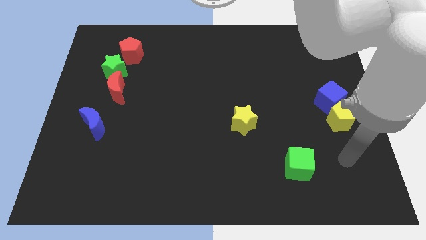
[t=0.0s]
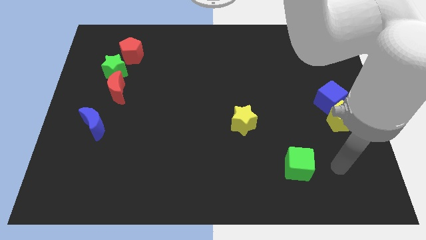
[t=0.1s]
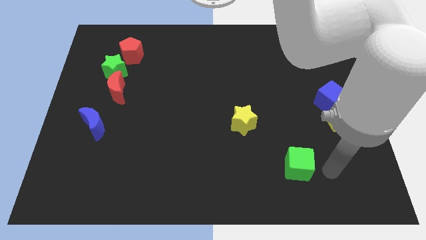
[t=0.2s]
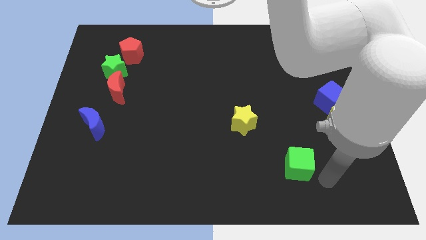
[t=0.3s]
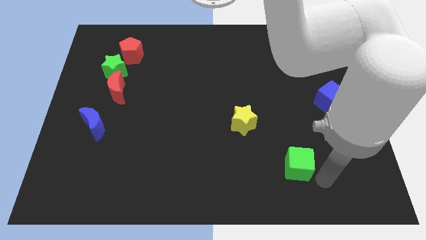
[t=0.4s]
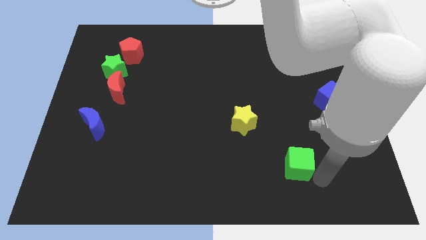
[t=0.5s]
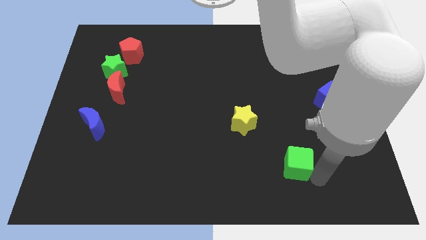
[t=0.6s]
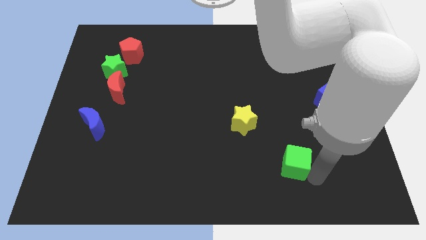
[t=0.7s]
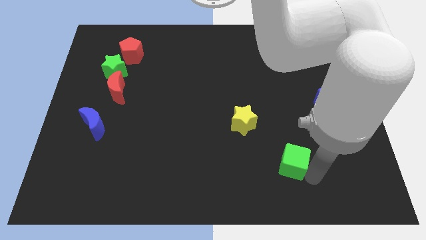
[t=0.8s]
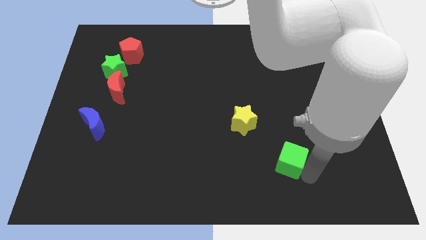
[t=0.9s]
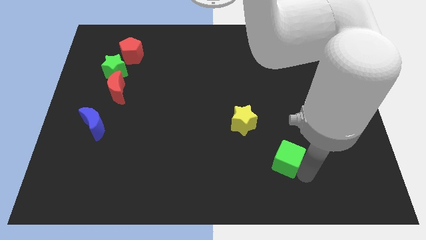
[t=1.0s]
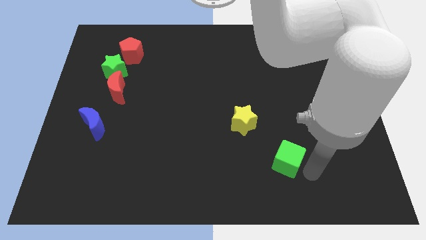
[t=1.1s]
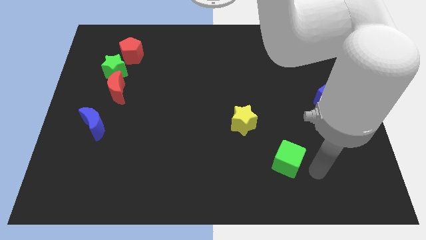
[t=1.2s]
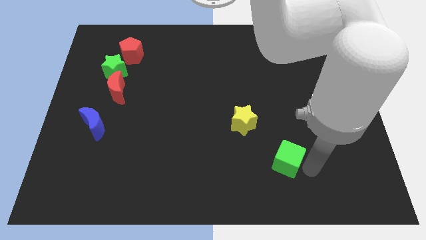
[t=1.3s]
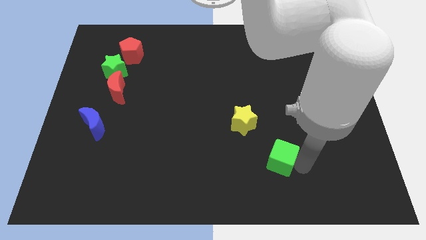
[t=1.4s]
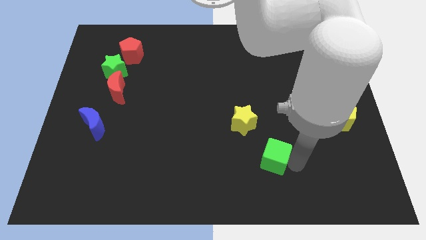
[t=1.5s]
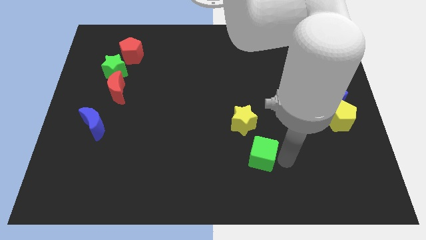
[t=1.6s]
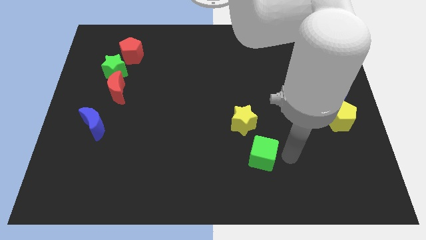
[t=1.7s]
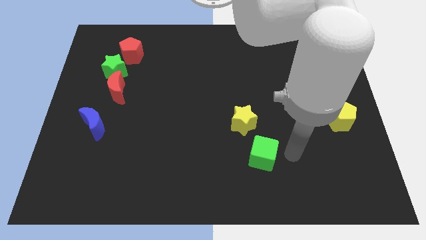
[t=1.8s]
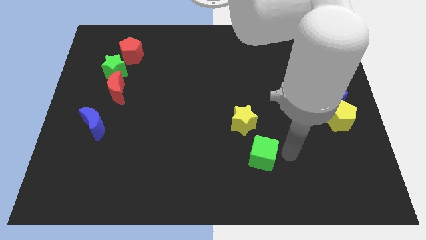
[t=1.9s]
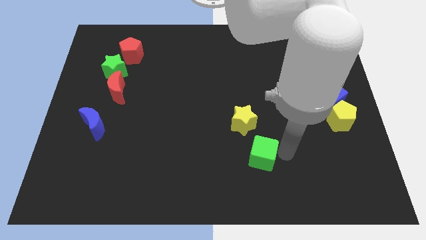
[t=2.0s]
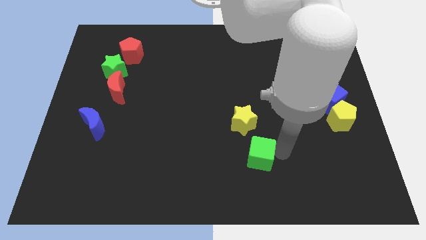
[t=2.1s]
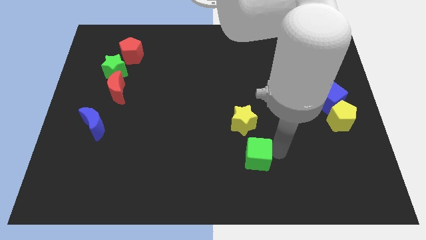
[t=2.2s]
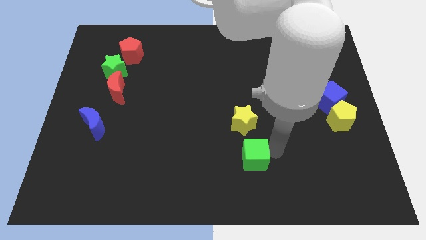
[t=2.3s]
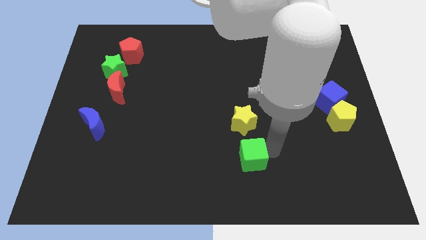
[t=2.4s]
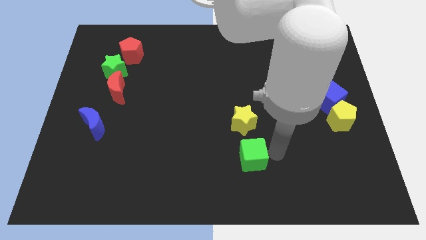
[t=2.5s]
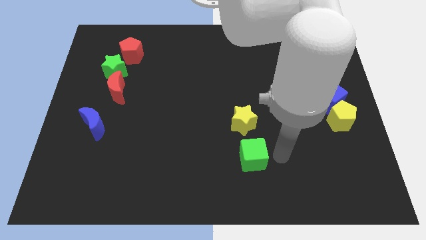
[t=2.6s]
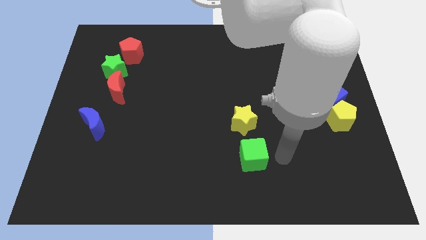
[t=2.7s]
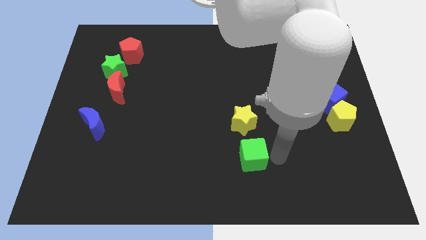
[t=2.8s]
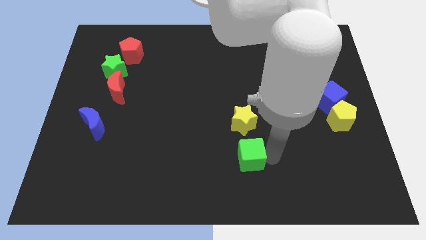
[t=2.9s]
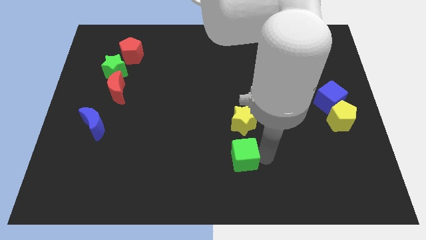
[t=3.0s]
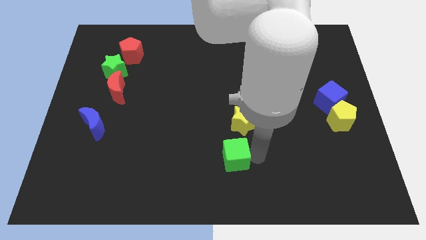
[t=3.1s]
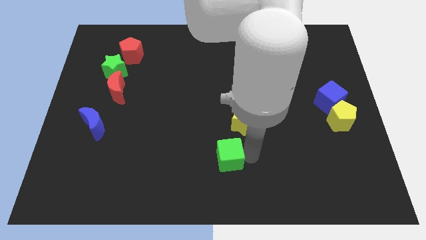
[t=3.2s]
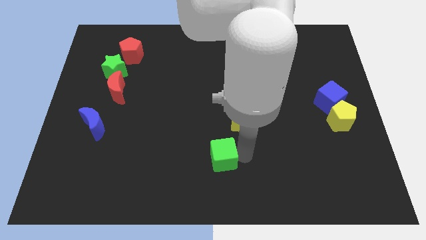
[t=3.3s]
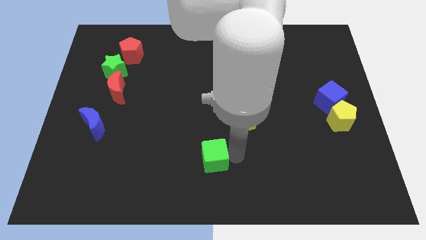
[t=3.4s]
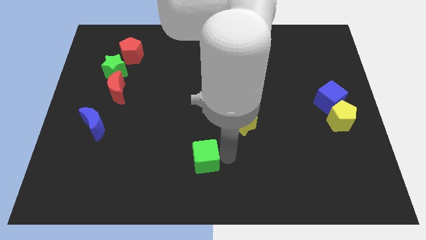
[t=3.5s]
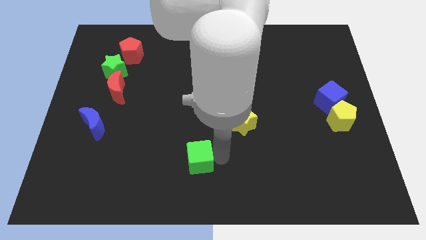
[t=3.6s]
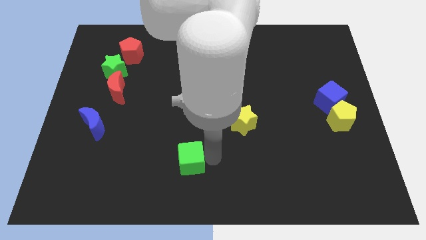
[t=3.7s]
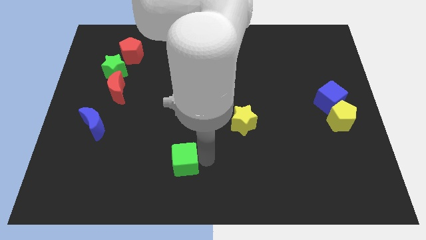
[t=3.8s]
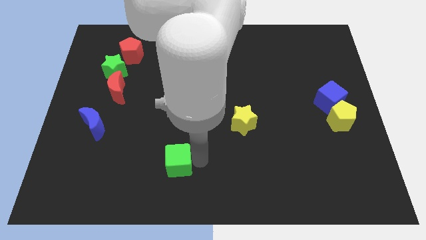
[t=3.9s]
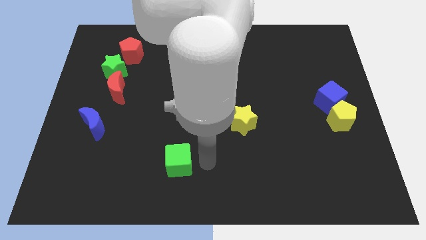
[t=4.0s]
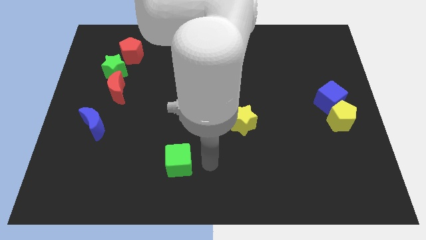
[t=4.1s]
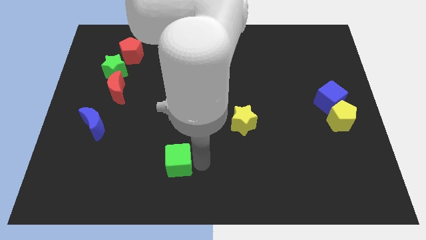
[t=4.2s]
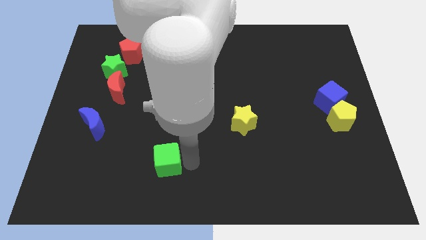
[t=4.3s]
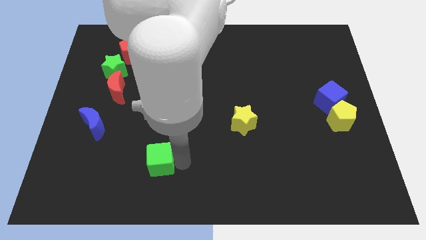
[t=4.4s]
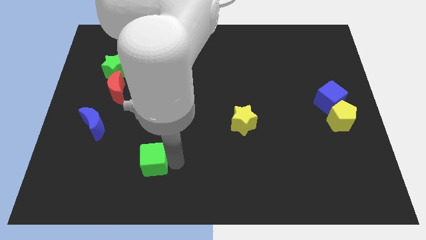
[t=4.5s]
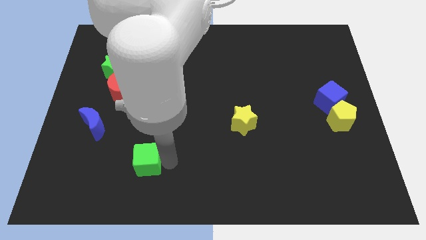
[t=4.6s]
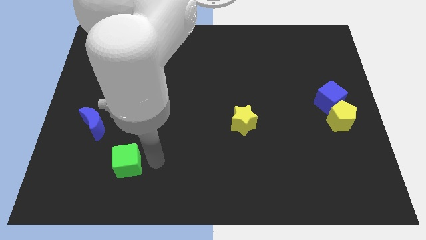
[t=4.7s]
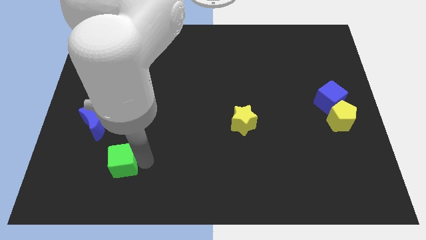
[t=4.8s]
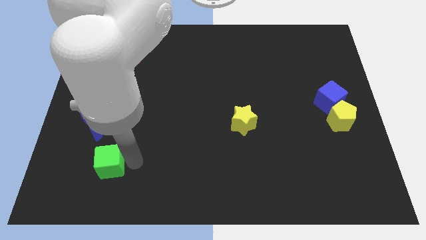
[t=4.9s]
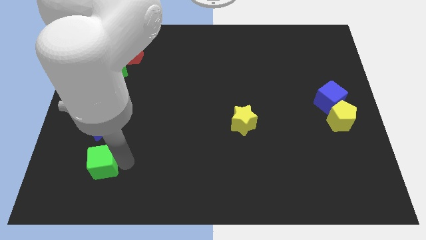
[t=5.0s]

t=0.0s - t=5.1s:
push the green cube to the bottom side of the blue moon

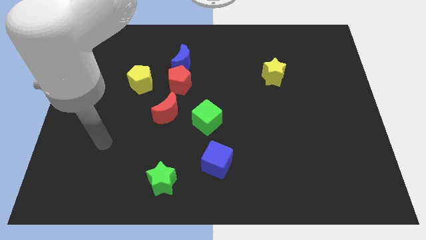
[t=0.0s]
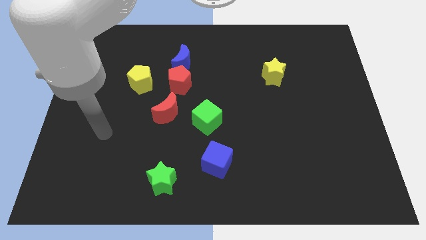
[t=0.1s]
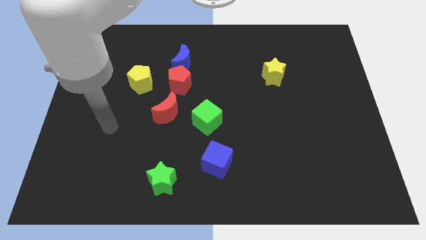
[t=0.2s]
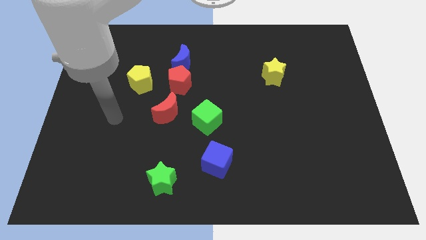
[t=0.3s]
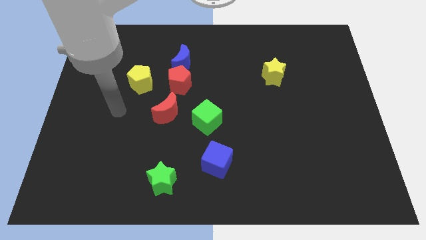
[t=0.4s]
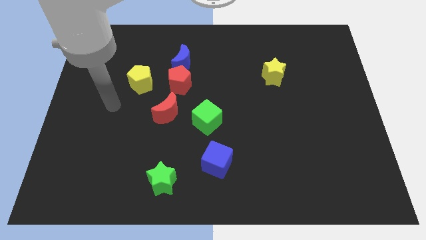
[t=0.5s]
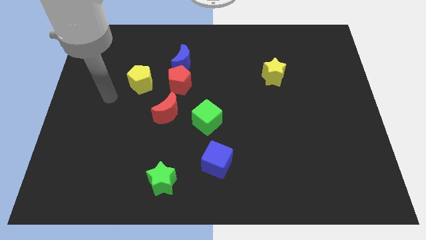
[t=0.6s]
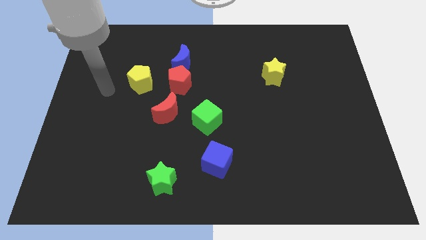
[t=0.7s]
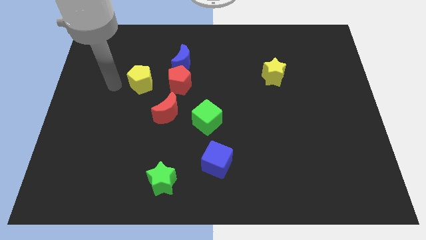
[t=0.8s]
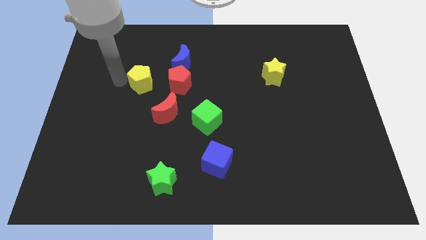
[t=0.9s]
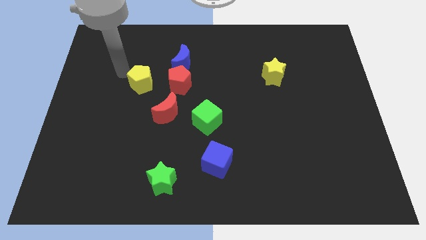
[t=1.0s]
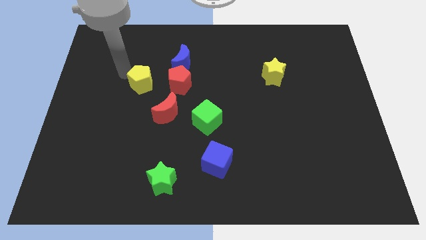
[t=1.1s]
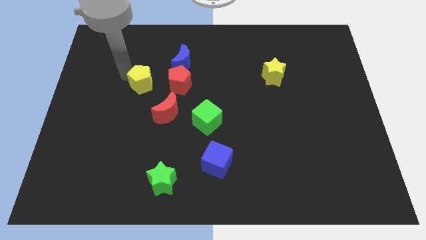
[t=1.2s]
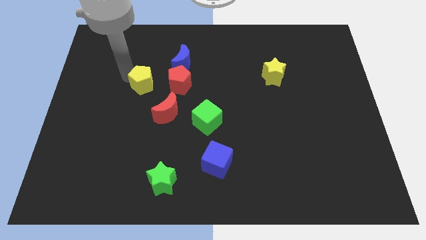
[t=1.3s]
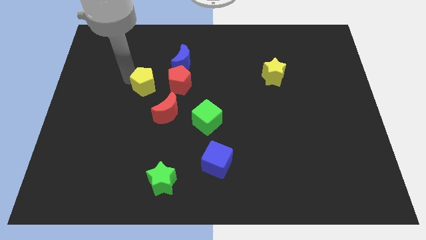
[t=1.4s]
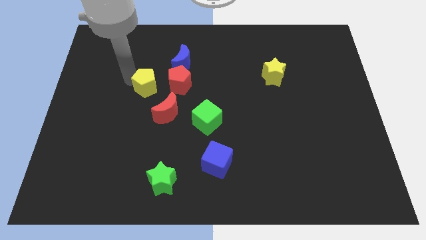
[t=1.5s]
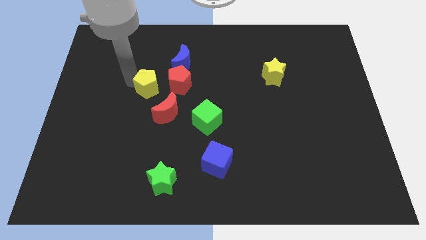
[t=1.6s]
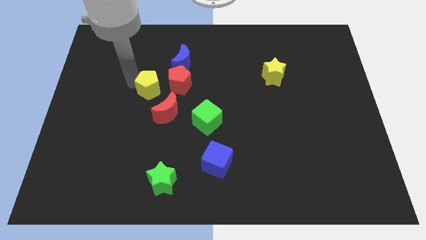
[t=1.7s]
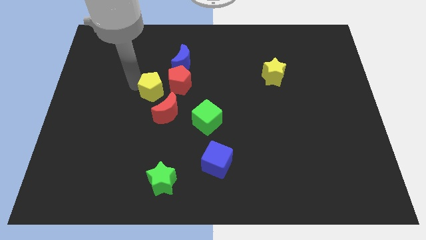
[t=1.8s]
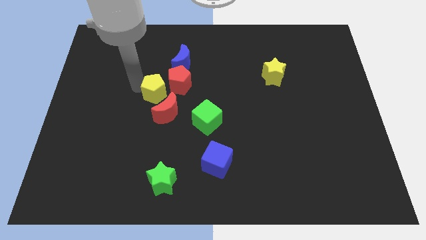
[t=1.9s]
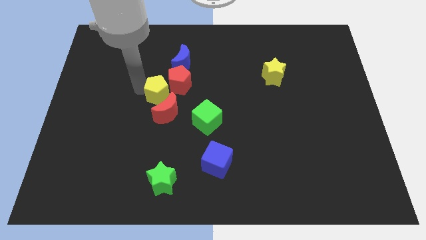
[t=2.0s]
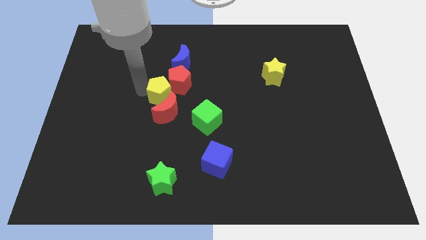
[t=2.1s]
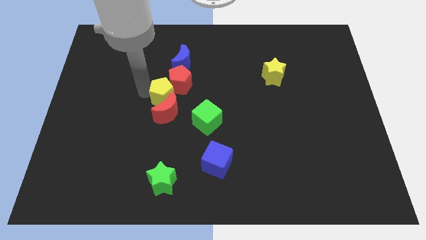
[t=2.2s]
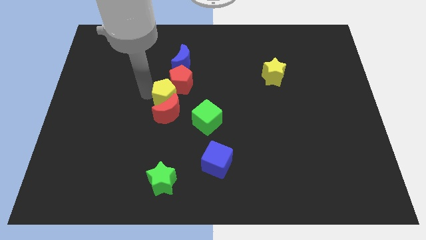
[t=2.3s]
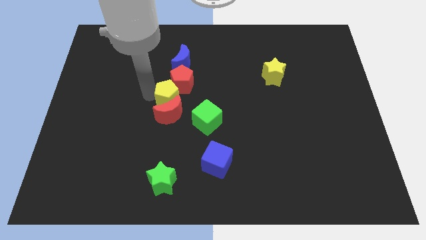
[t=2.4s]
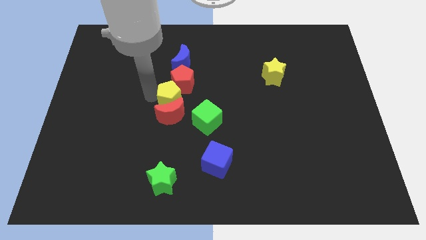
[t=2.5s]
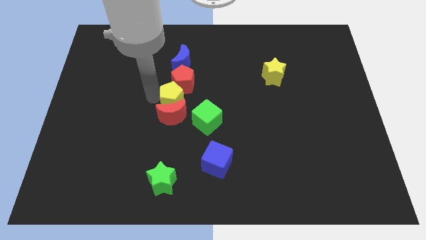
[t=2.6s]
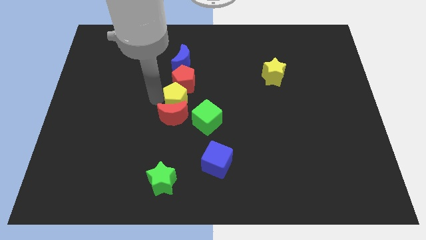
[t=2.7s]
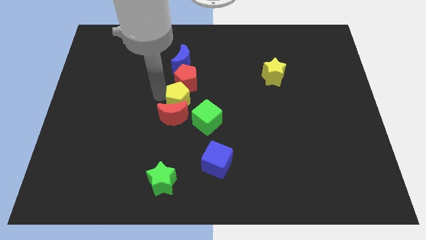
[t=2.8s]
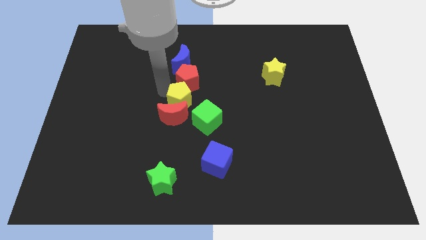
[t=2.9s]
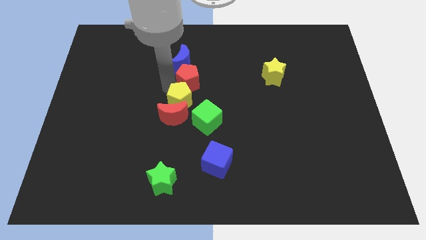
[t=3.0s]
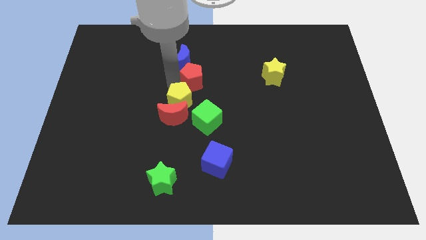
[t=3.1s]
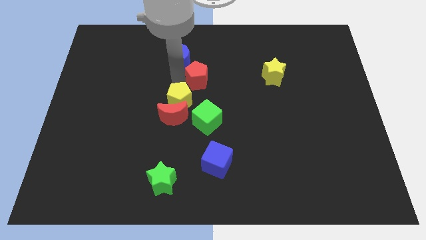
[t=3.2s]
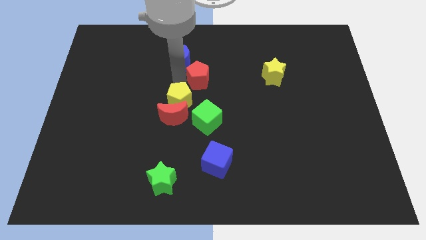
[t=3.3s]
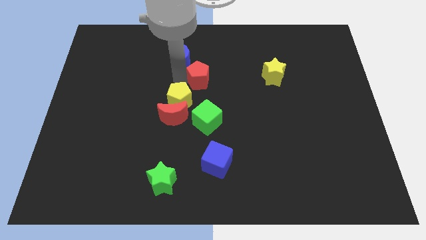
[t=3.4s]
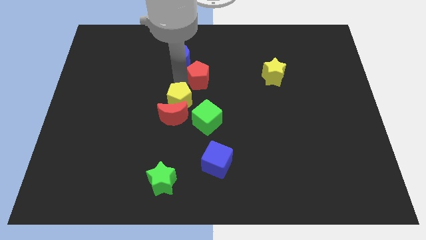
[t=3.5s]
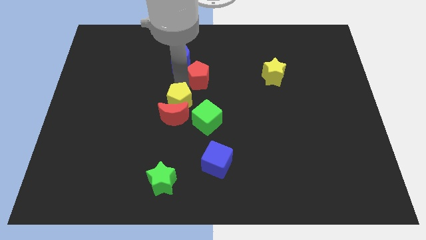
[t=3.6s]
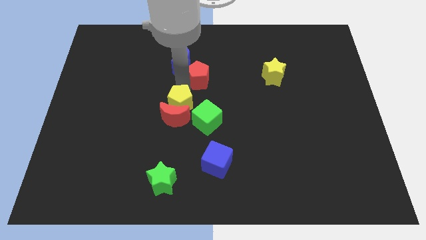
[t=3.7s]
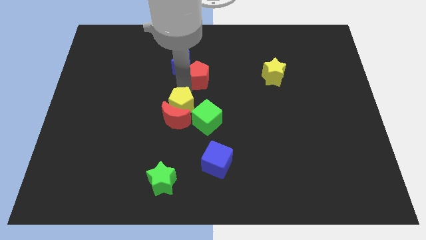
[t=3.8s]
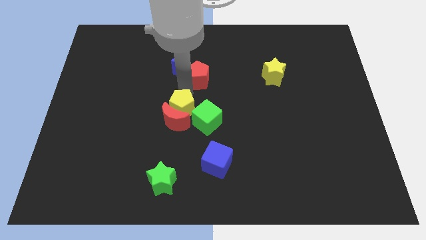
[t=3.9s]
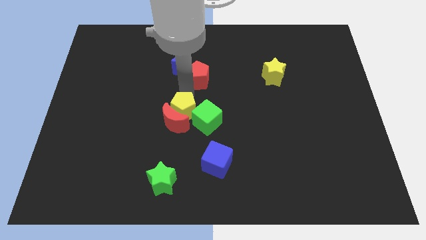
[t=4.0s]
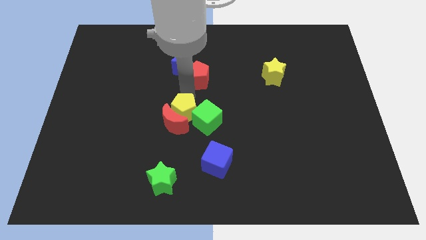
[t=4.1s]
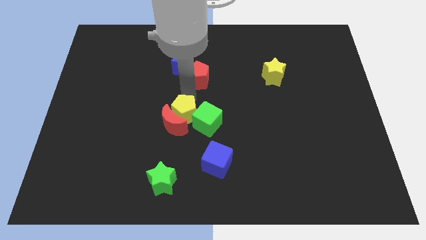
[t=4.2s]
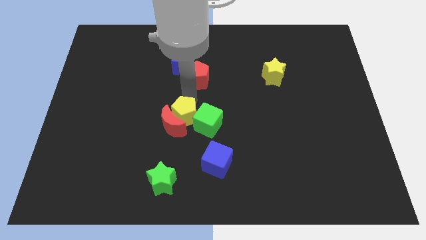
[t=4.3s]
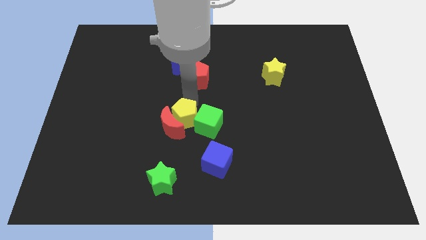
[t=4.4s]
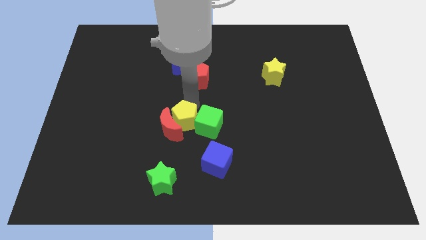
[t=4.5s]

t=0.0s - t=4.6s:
push the yellow pentagon diagonally down and to the left of the green cube
